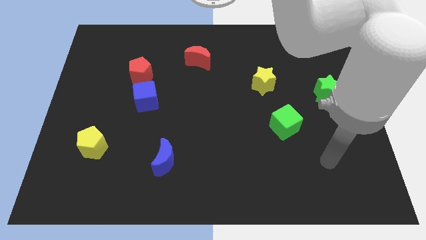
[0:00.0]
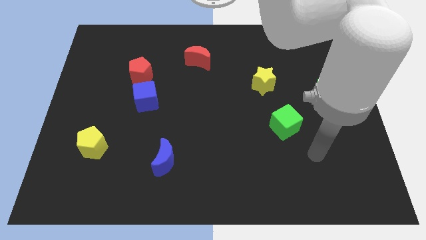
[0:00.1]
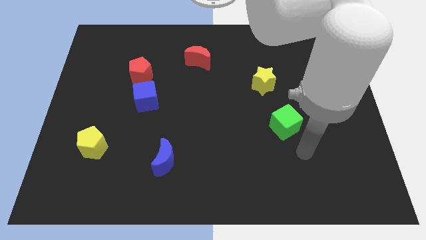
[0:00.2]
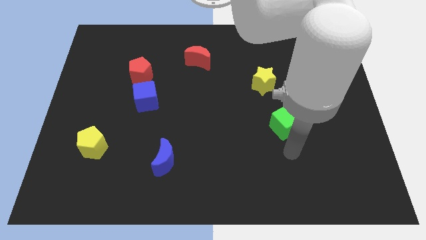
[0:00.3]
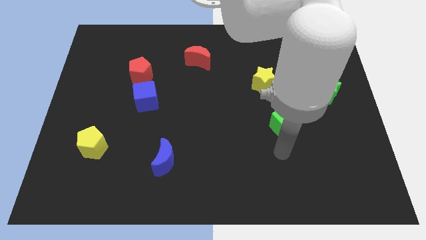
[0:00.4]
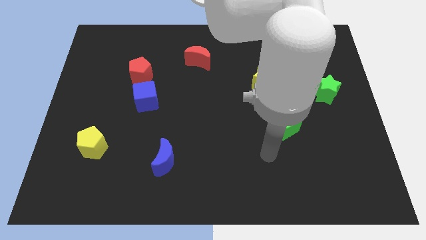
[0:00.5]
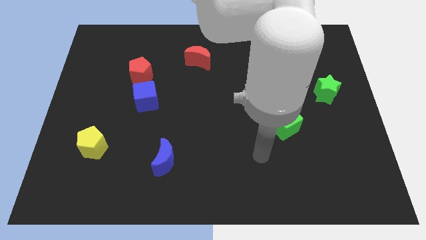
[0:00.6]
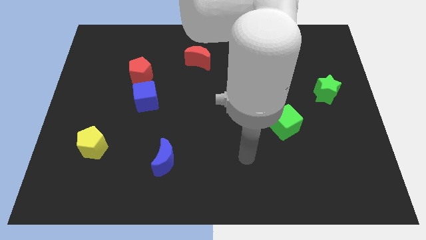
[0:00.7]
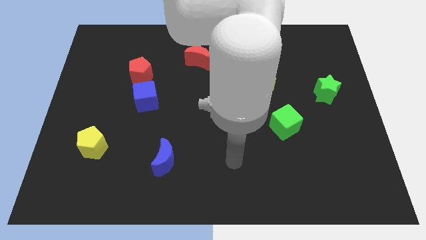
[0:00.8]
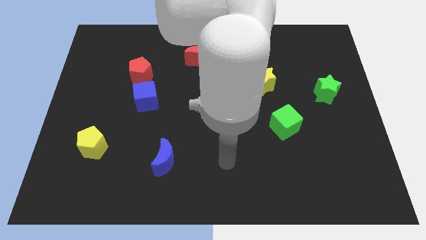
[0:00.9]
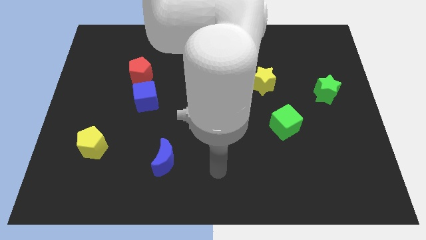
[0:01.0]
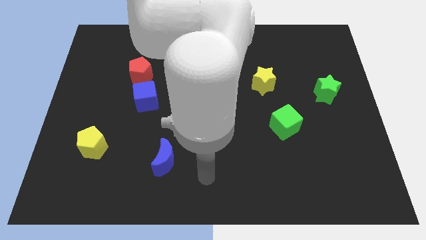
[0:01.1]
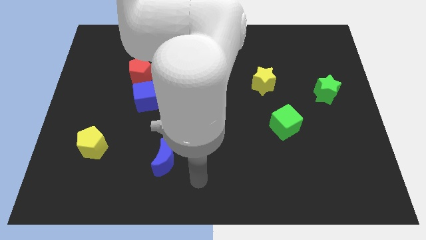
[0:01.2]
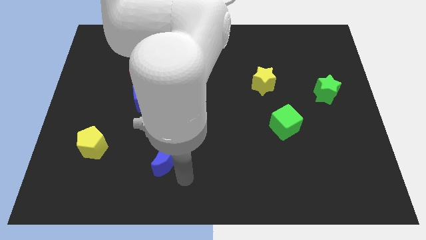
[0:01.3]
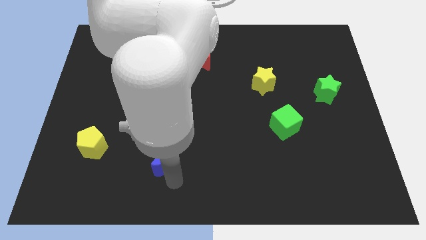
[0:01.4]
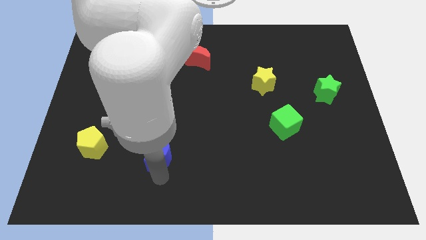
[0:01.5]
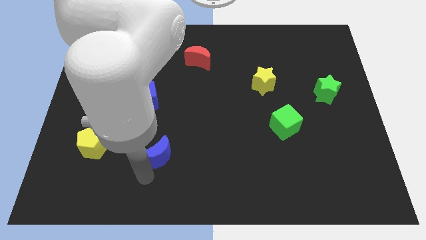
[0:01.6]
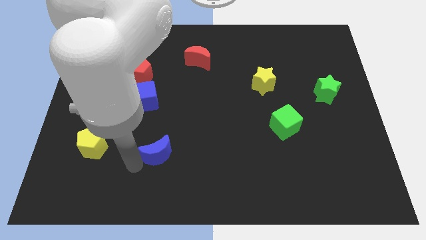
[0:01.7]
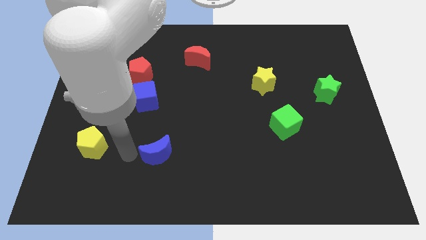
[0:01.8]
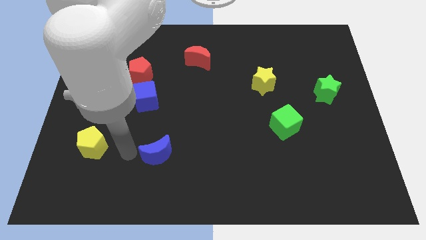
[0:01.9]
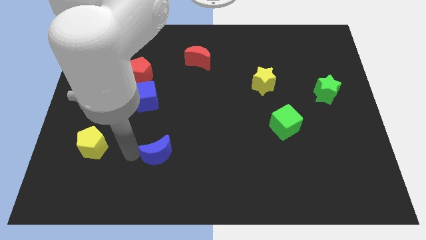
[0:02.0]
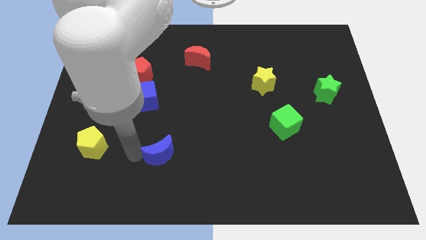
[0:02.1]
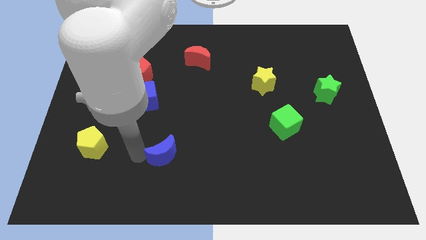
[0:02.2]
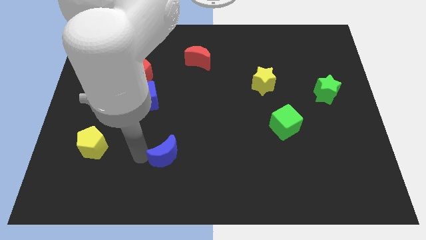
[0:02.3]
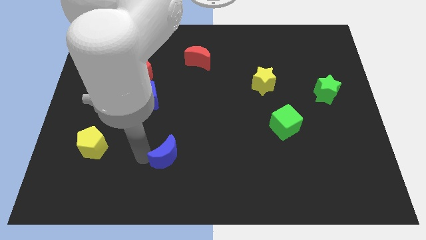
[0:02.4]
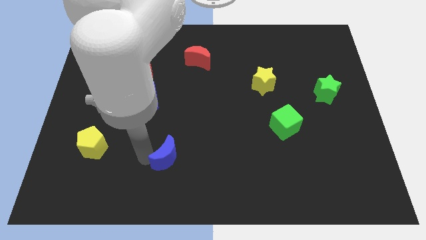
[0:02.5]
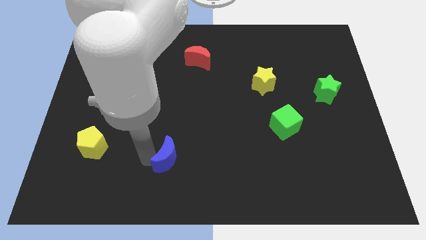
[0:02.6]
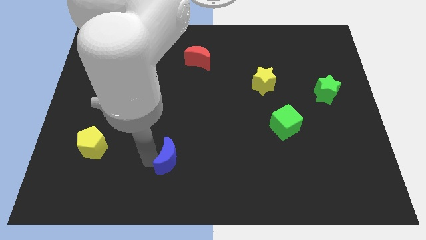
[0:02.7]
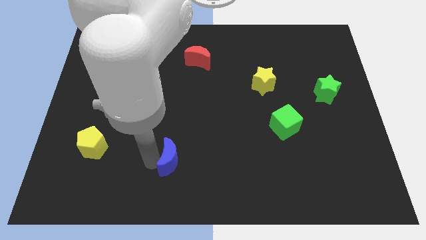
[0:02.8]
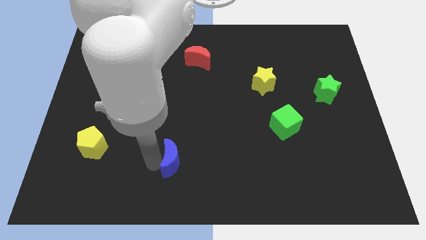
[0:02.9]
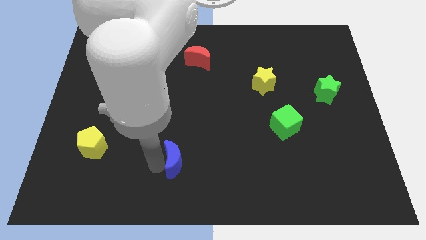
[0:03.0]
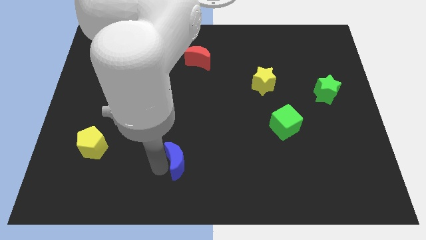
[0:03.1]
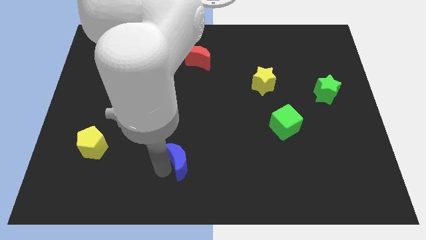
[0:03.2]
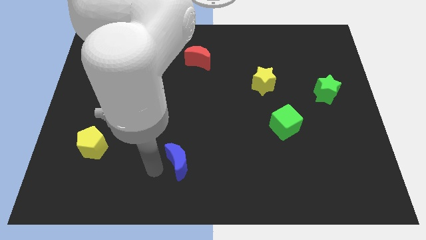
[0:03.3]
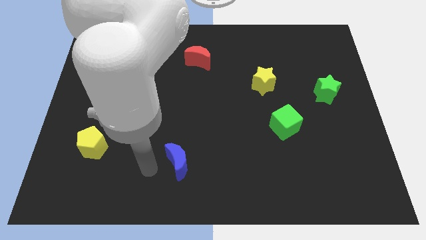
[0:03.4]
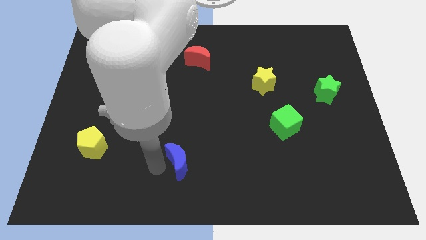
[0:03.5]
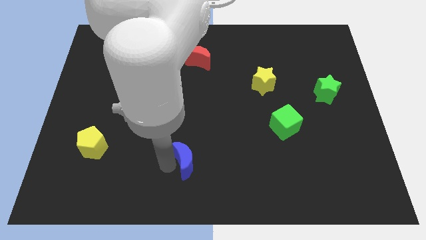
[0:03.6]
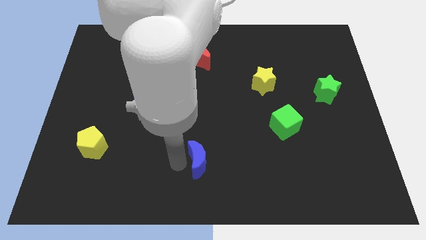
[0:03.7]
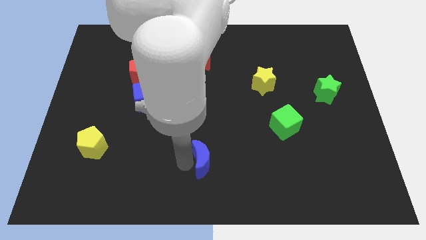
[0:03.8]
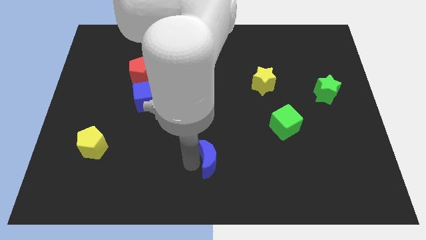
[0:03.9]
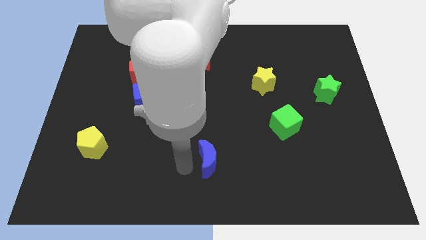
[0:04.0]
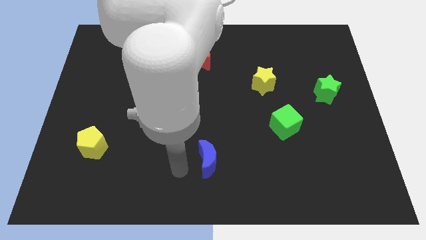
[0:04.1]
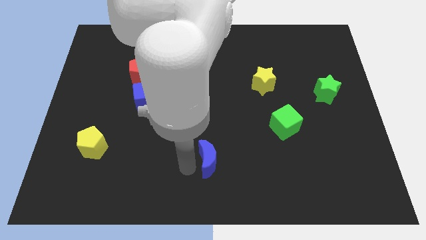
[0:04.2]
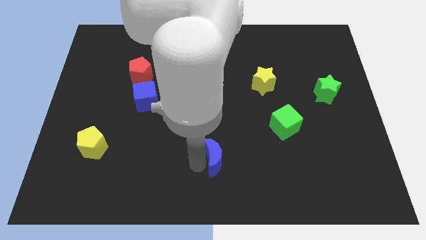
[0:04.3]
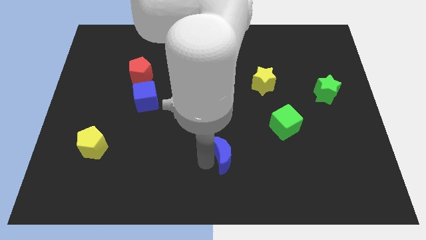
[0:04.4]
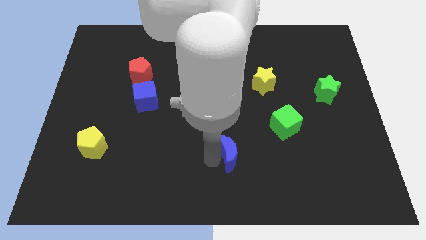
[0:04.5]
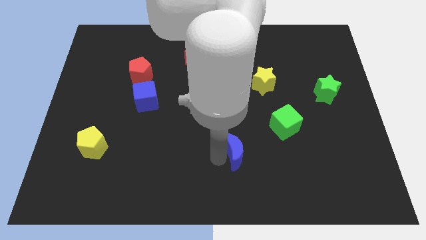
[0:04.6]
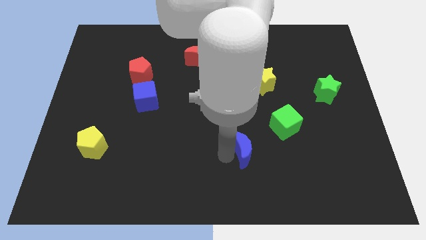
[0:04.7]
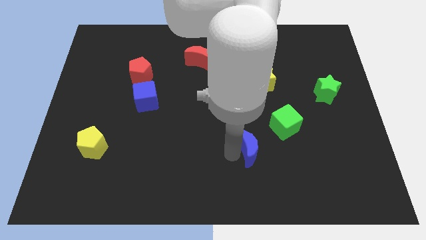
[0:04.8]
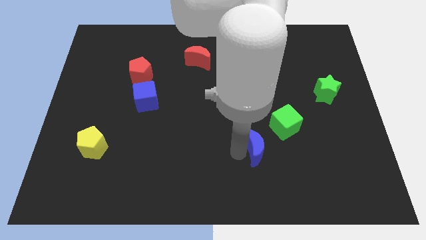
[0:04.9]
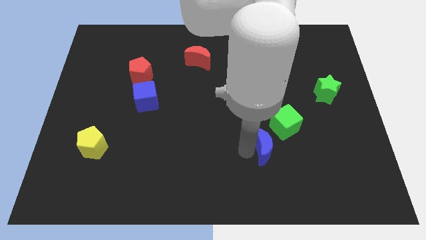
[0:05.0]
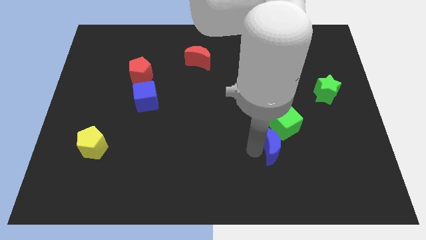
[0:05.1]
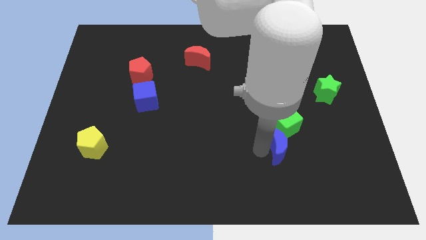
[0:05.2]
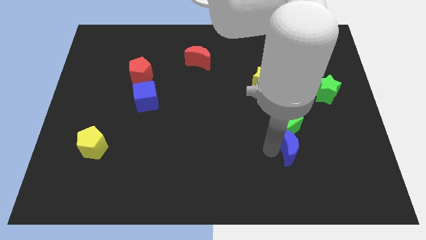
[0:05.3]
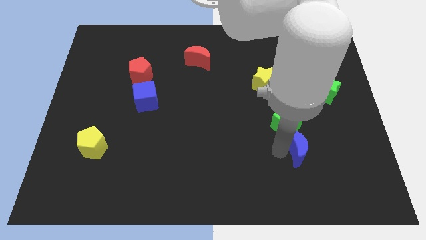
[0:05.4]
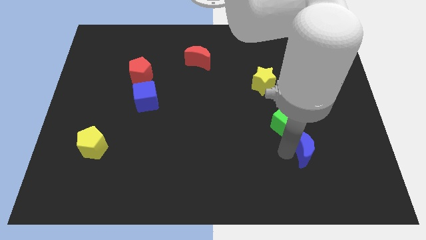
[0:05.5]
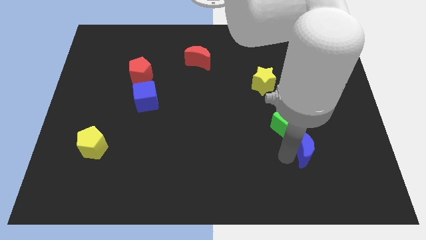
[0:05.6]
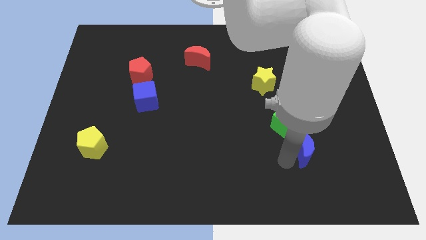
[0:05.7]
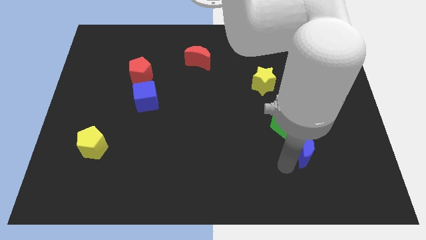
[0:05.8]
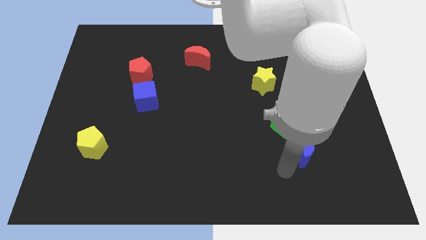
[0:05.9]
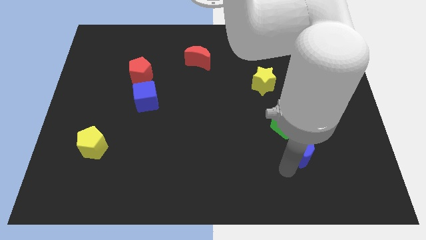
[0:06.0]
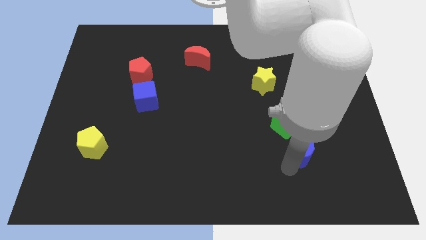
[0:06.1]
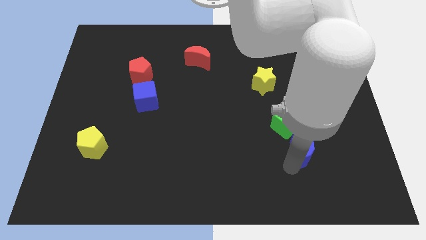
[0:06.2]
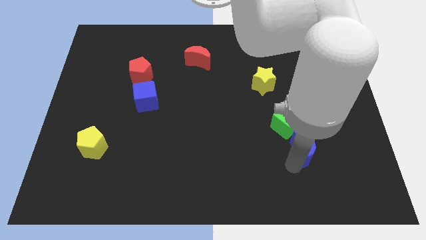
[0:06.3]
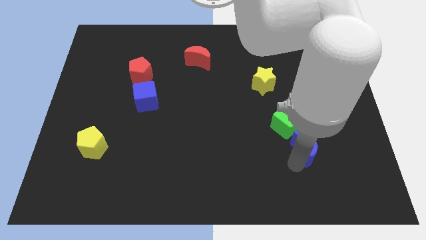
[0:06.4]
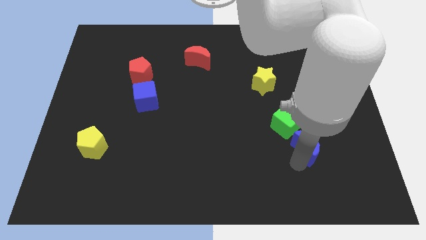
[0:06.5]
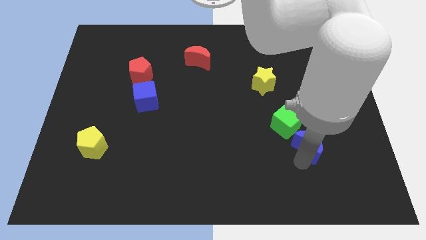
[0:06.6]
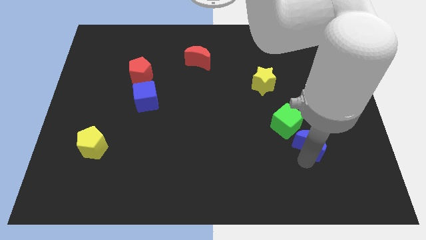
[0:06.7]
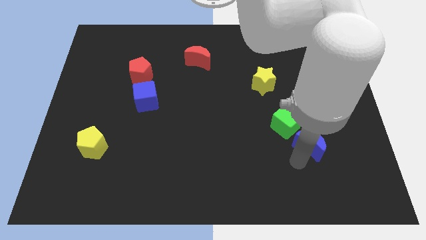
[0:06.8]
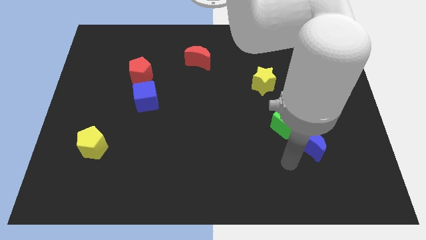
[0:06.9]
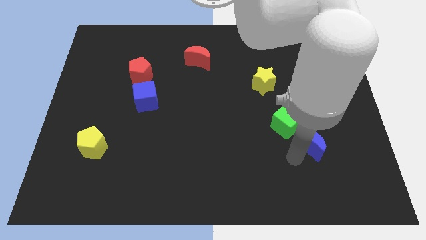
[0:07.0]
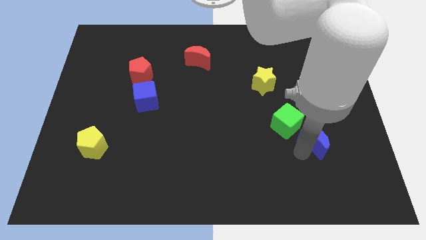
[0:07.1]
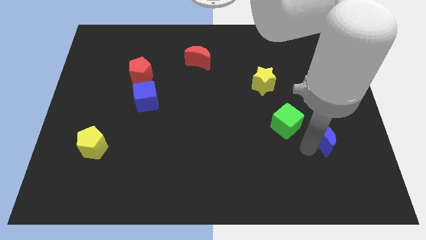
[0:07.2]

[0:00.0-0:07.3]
put the blue moon to the bottom side of the green star
